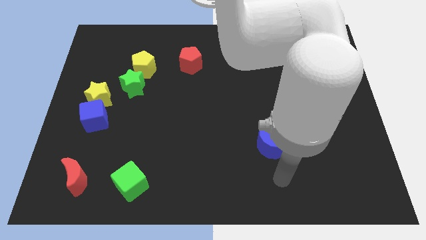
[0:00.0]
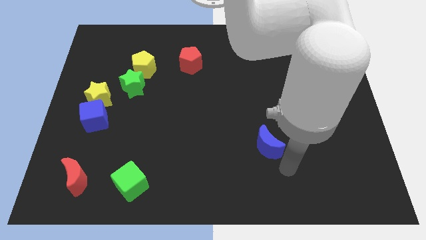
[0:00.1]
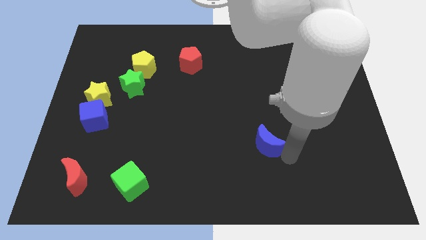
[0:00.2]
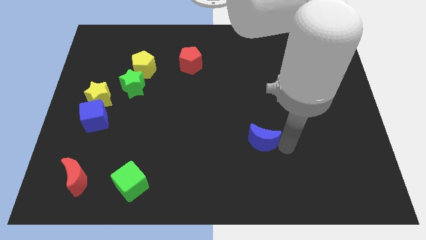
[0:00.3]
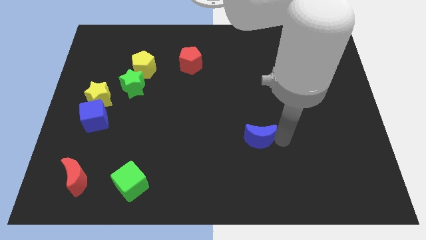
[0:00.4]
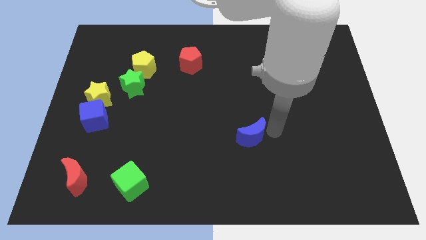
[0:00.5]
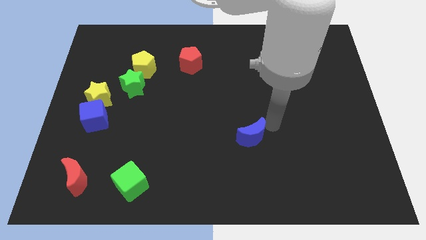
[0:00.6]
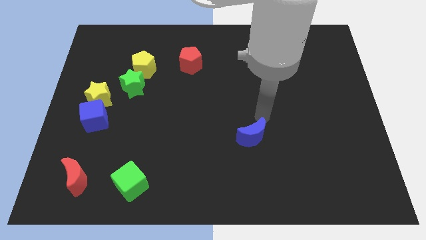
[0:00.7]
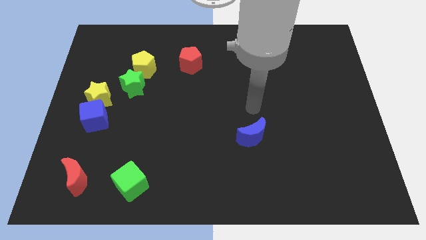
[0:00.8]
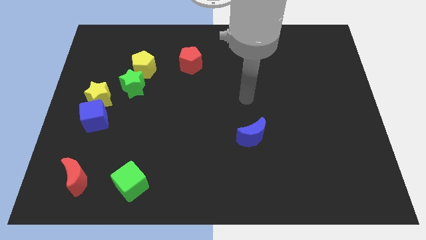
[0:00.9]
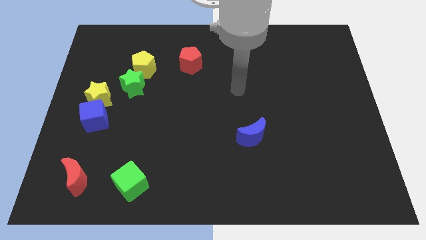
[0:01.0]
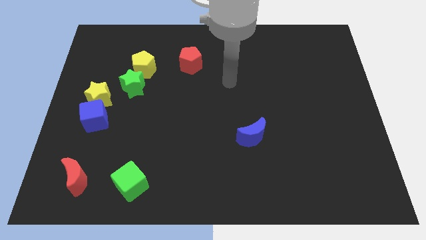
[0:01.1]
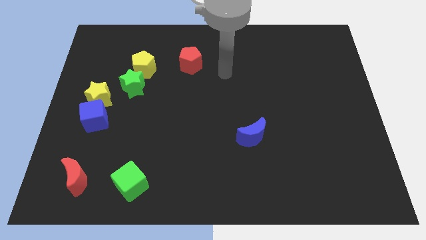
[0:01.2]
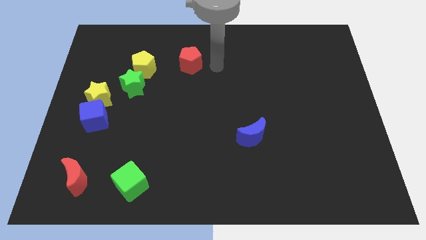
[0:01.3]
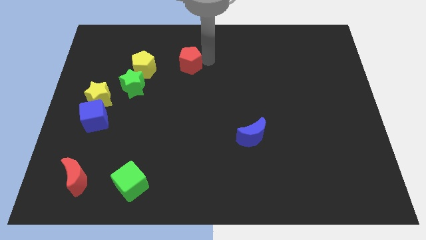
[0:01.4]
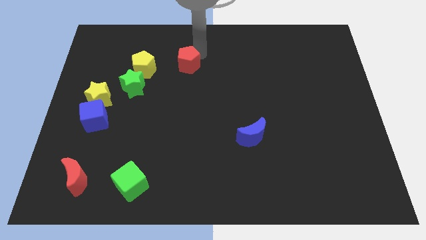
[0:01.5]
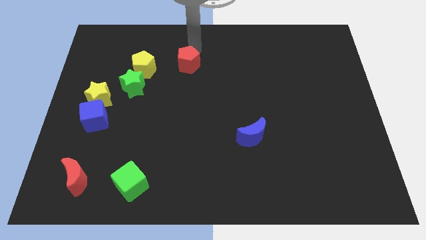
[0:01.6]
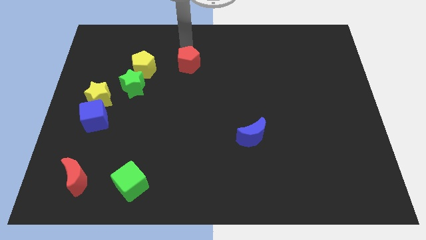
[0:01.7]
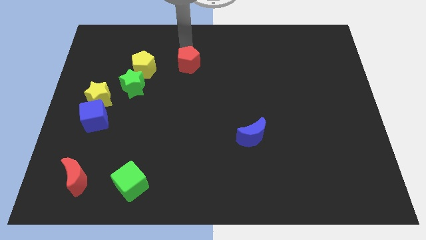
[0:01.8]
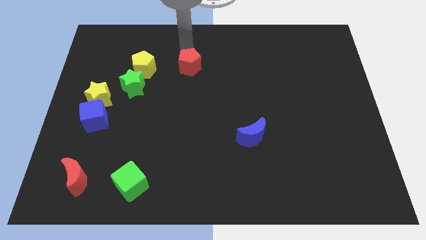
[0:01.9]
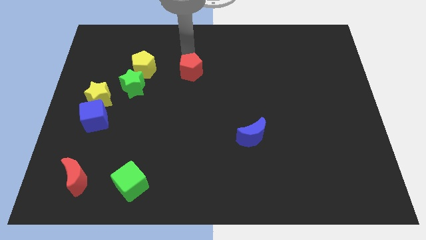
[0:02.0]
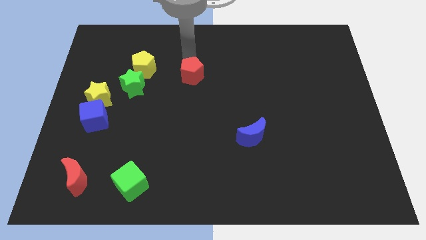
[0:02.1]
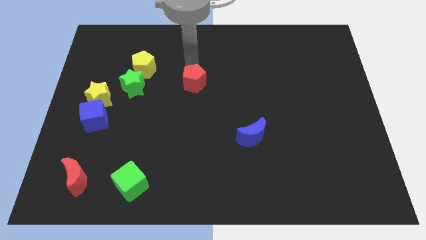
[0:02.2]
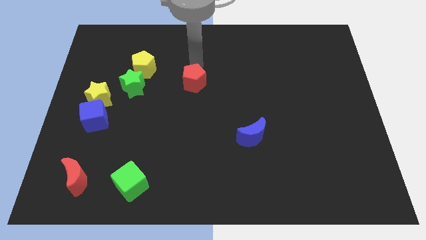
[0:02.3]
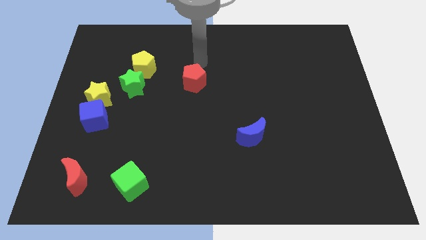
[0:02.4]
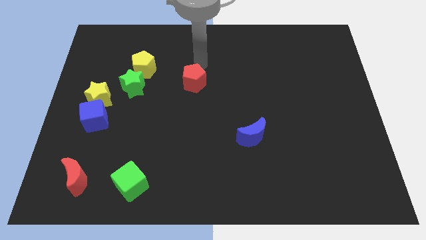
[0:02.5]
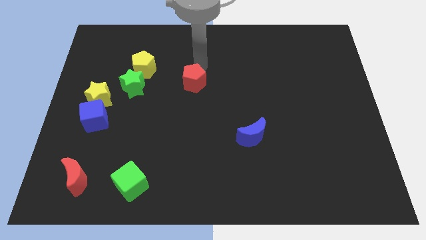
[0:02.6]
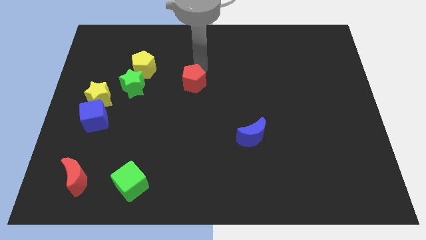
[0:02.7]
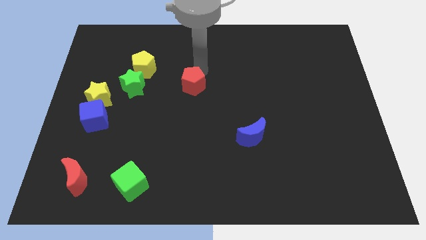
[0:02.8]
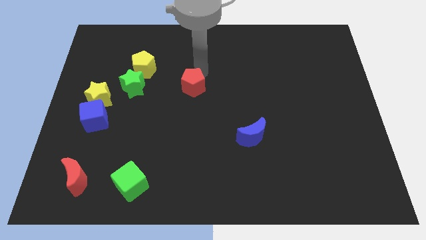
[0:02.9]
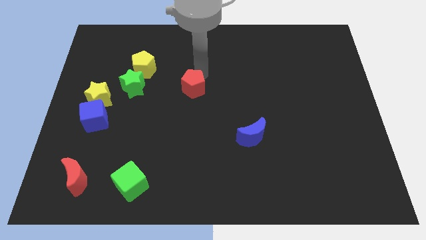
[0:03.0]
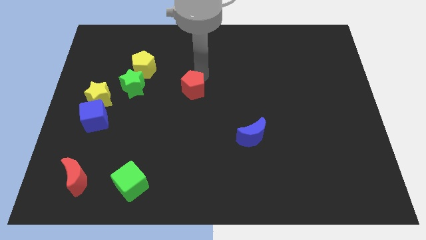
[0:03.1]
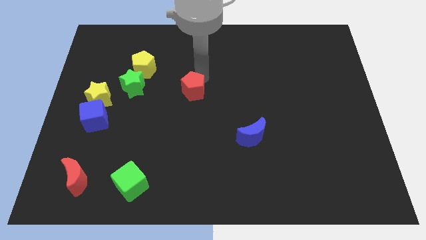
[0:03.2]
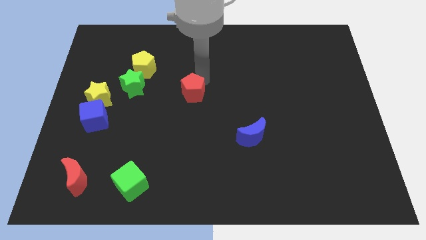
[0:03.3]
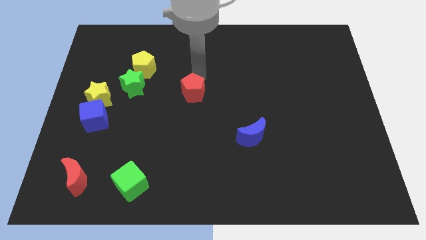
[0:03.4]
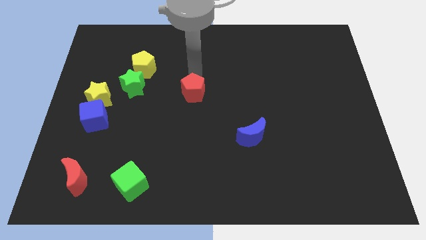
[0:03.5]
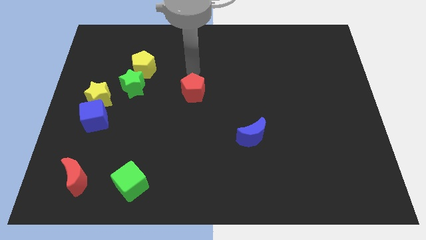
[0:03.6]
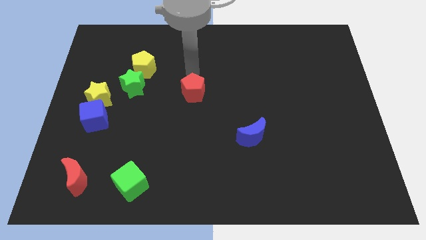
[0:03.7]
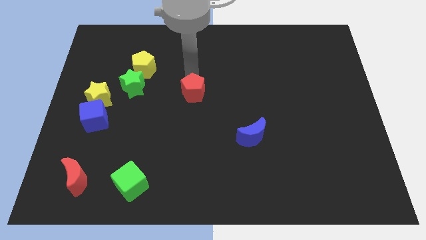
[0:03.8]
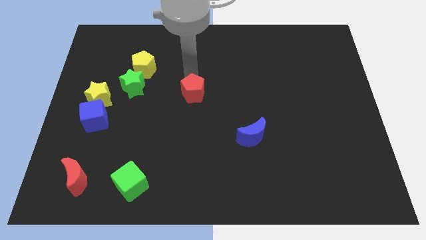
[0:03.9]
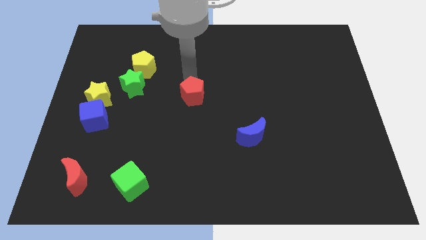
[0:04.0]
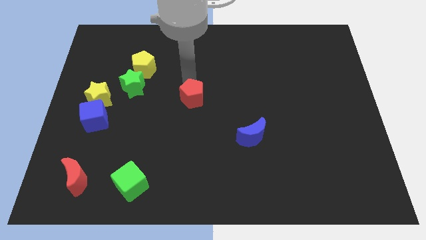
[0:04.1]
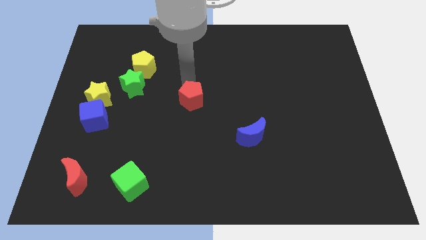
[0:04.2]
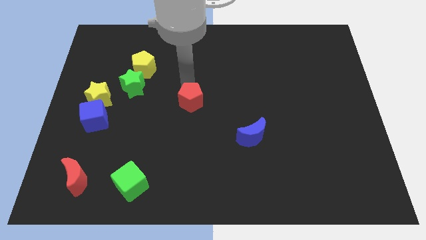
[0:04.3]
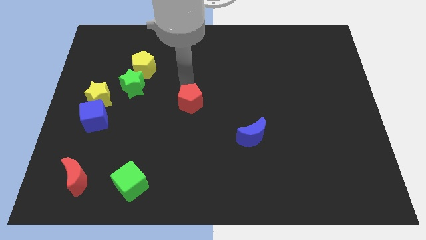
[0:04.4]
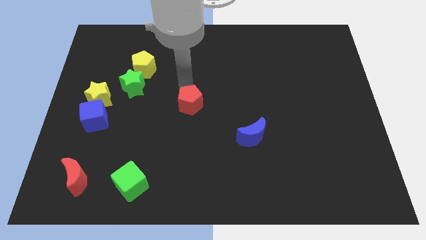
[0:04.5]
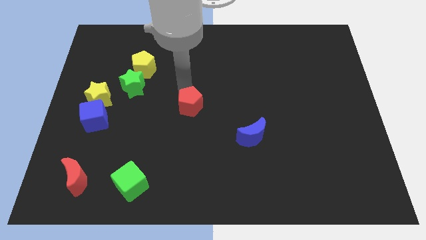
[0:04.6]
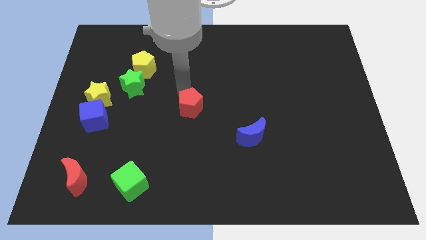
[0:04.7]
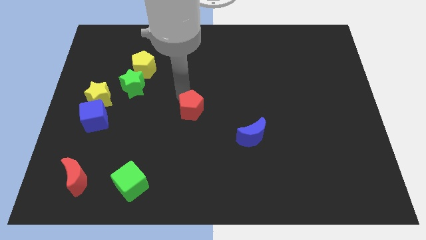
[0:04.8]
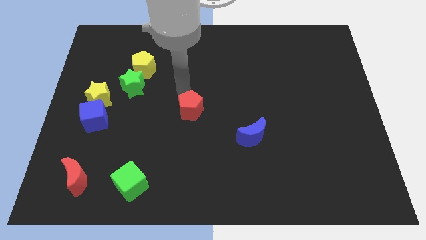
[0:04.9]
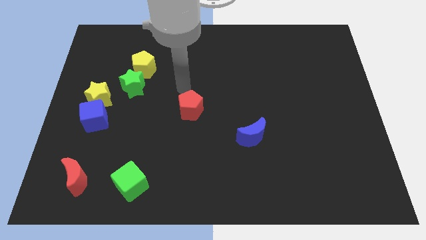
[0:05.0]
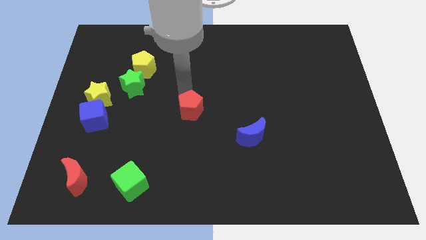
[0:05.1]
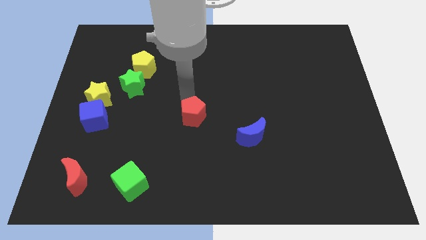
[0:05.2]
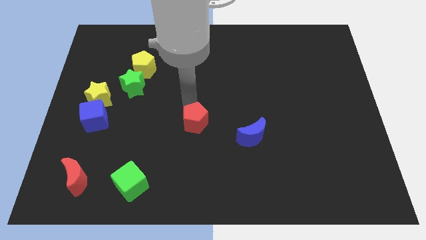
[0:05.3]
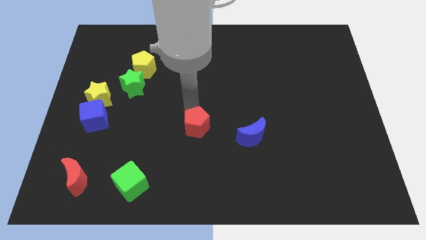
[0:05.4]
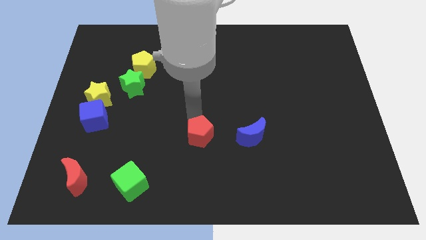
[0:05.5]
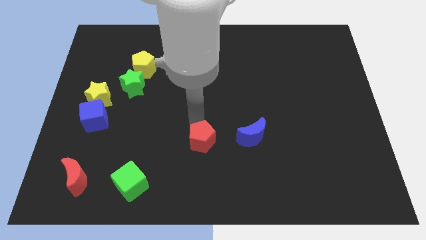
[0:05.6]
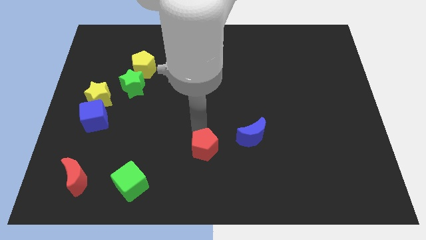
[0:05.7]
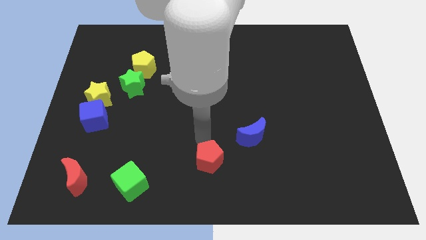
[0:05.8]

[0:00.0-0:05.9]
slide the red pentagon to the bottom side

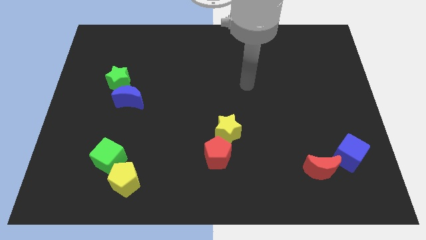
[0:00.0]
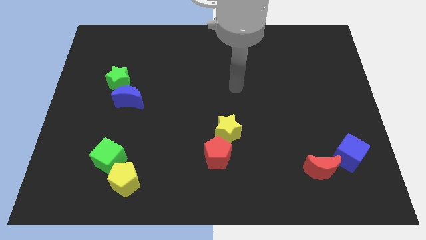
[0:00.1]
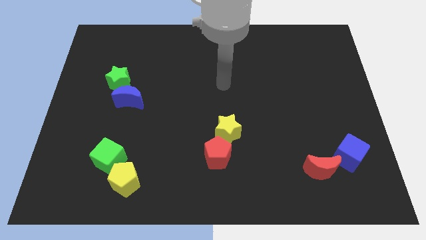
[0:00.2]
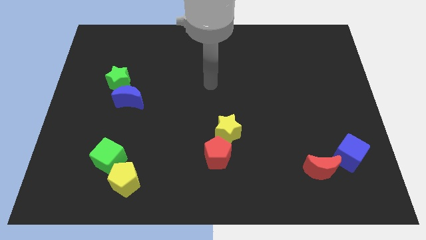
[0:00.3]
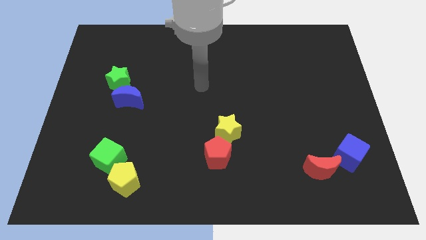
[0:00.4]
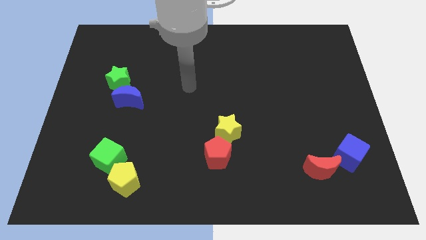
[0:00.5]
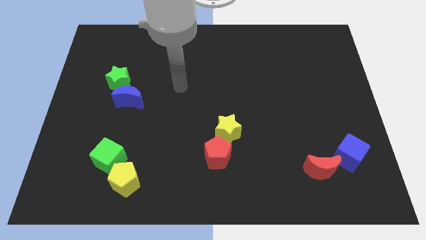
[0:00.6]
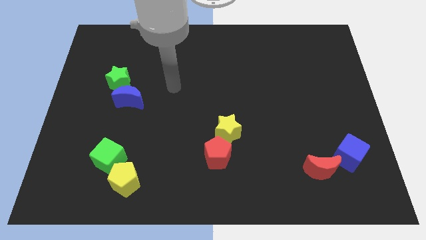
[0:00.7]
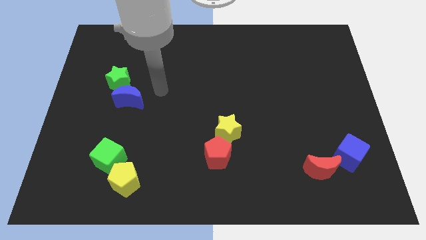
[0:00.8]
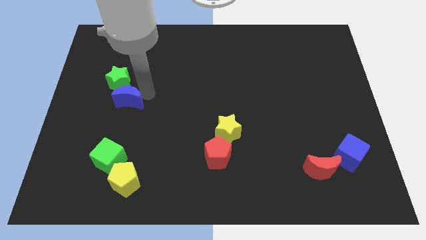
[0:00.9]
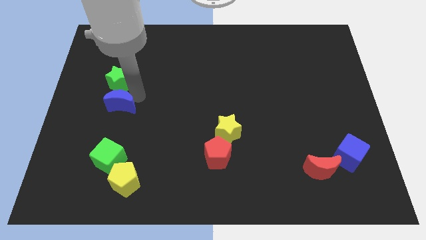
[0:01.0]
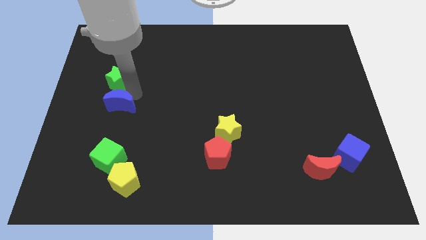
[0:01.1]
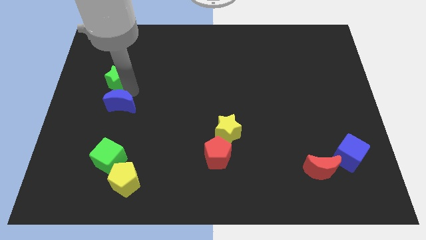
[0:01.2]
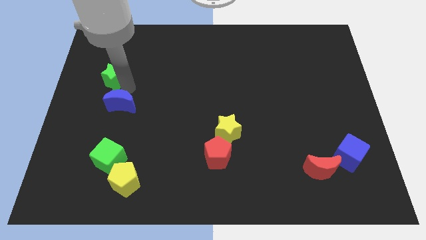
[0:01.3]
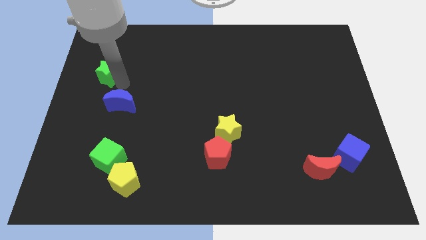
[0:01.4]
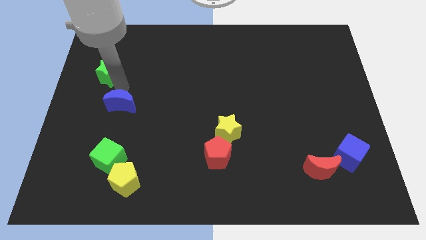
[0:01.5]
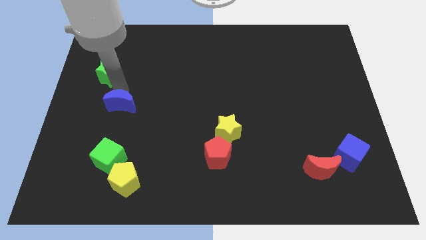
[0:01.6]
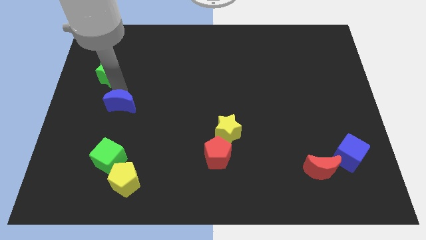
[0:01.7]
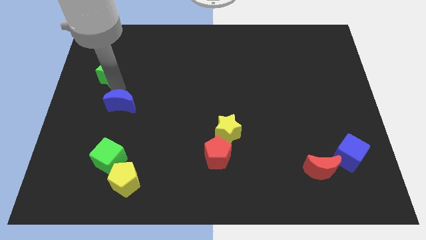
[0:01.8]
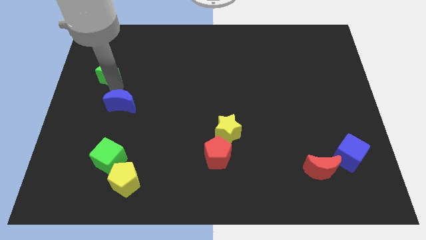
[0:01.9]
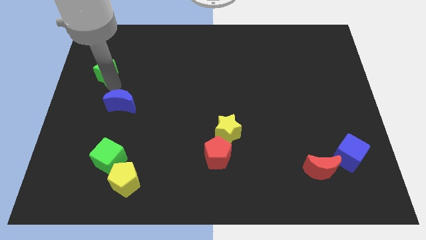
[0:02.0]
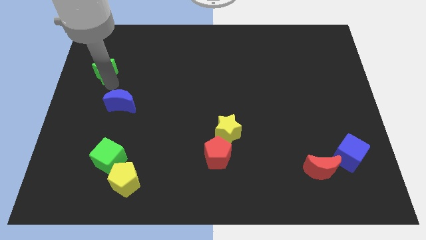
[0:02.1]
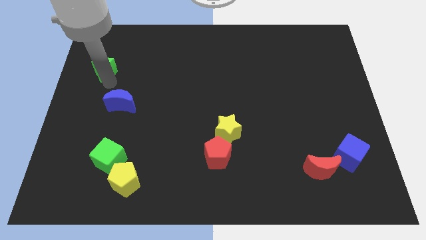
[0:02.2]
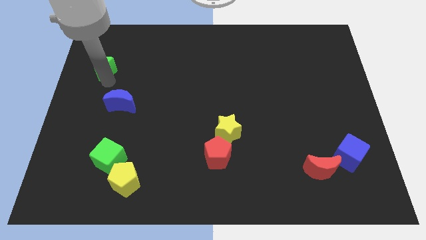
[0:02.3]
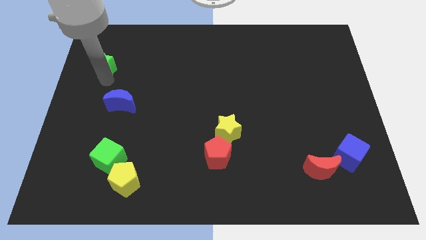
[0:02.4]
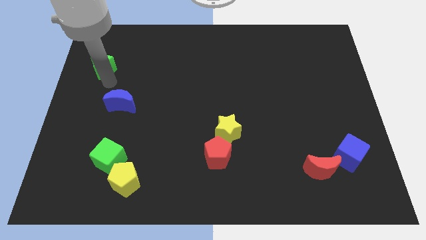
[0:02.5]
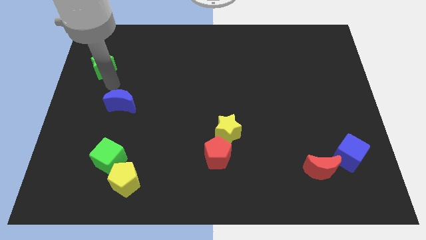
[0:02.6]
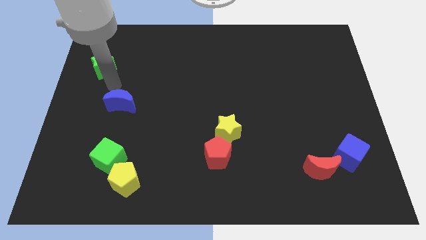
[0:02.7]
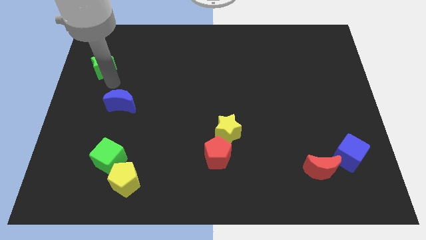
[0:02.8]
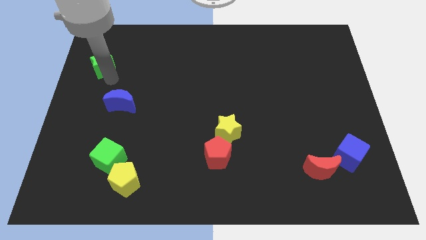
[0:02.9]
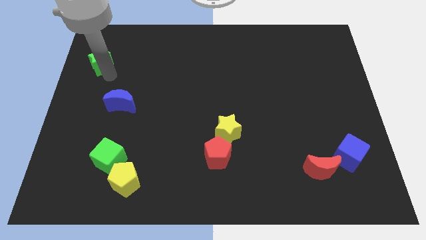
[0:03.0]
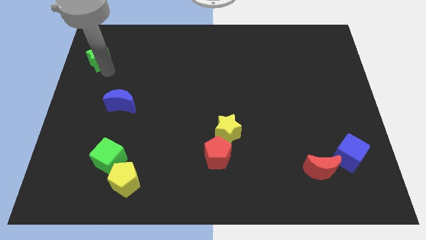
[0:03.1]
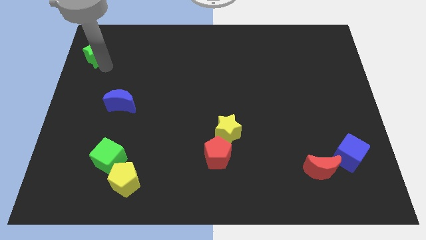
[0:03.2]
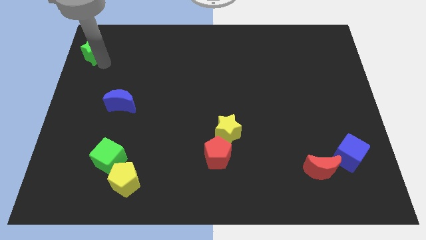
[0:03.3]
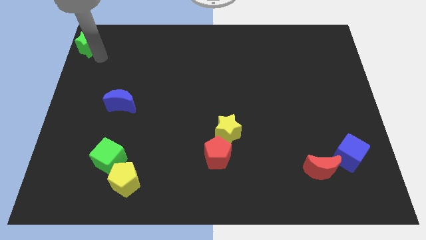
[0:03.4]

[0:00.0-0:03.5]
put the green star to the upper left corner
